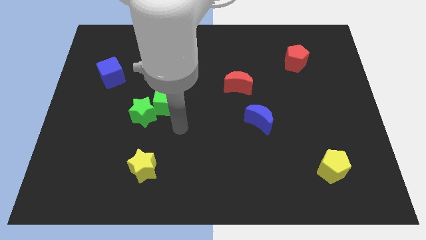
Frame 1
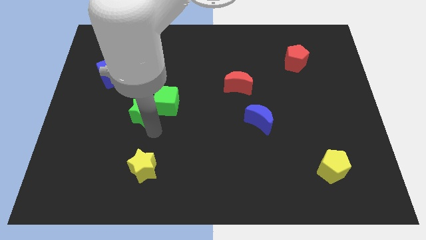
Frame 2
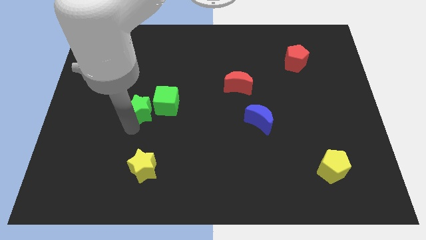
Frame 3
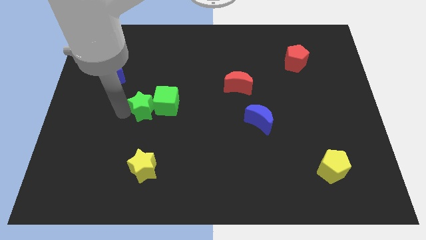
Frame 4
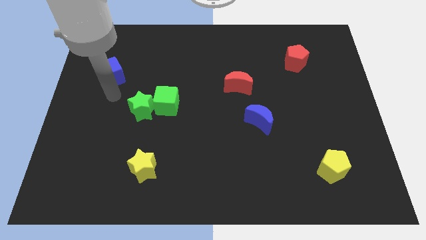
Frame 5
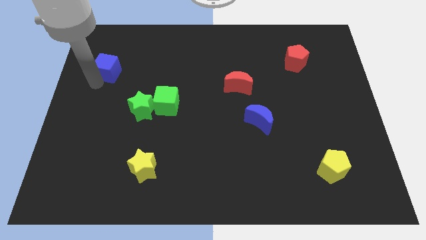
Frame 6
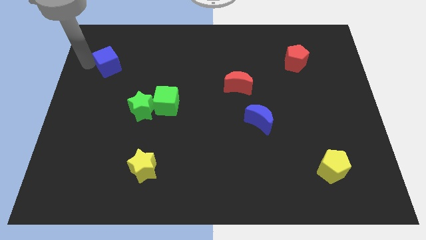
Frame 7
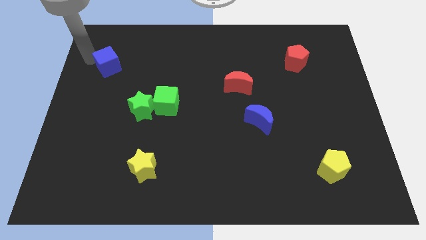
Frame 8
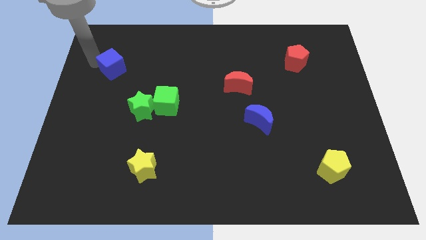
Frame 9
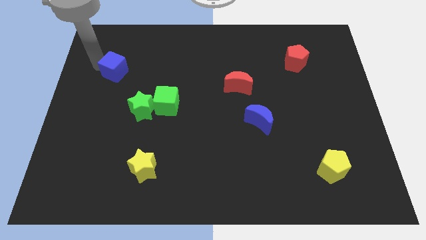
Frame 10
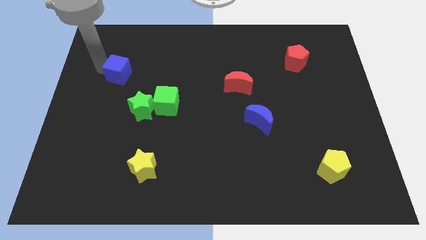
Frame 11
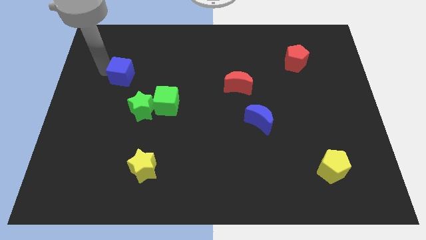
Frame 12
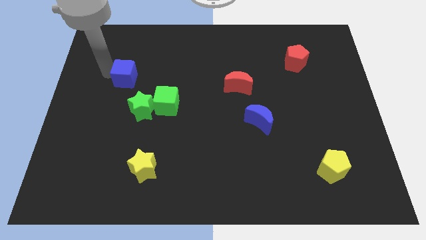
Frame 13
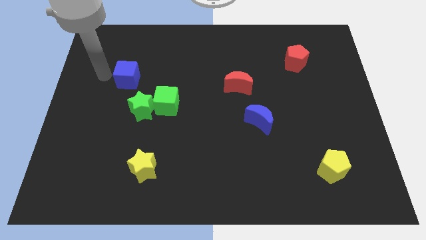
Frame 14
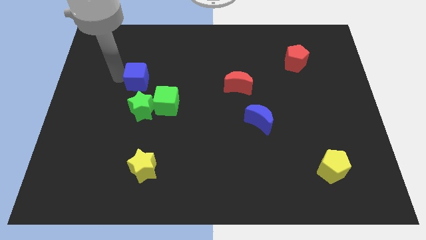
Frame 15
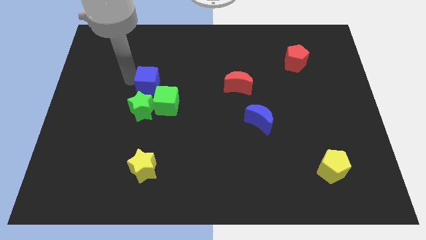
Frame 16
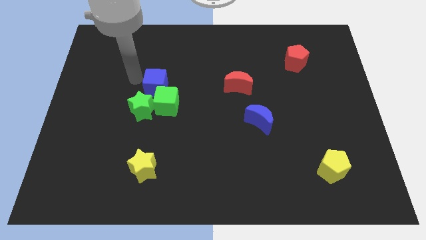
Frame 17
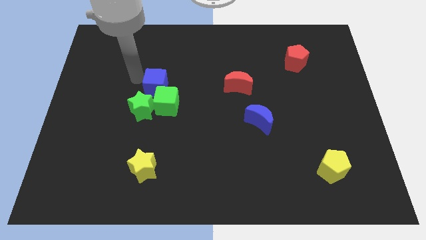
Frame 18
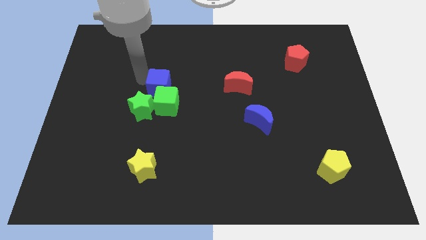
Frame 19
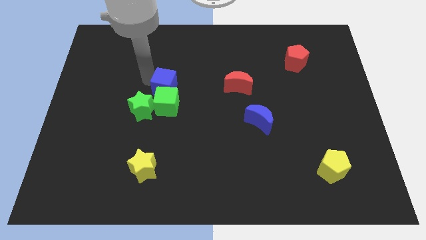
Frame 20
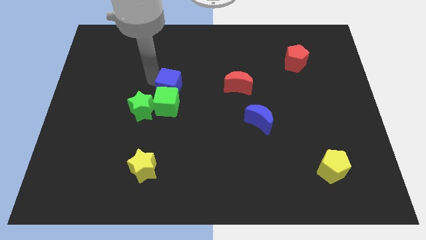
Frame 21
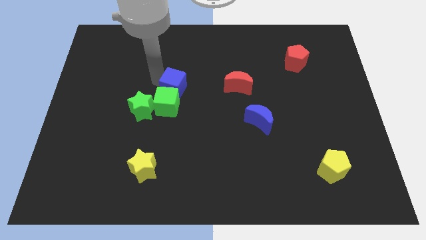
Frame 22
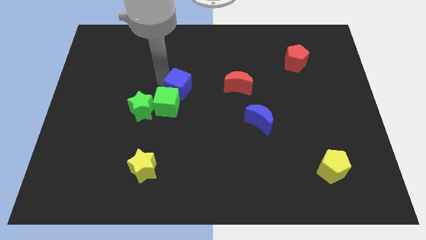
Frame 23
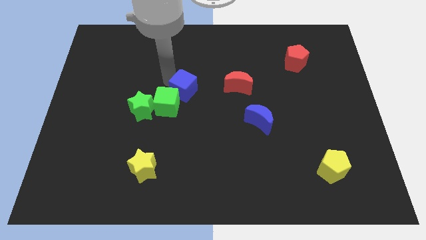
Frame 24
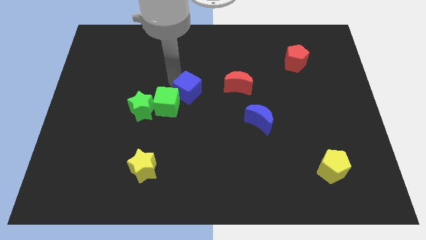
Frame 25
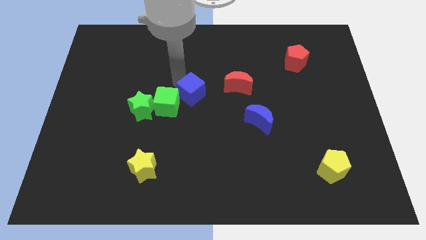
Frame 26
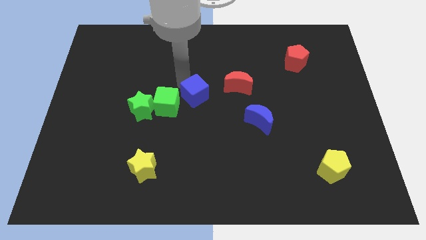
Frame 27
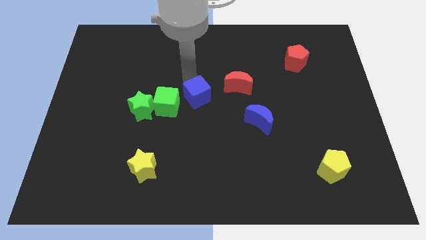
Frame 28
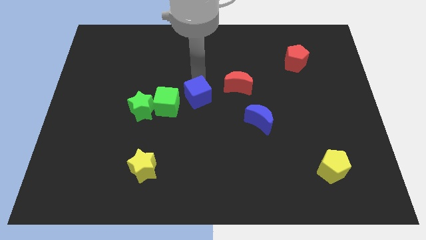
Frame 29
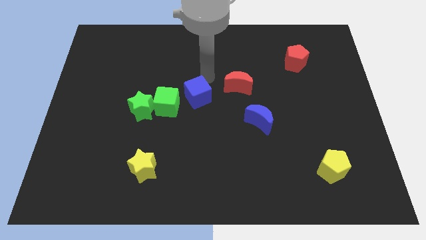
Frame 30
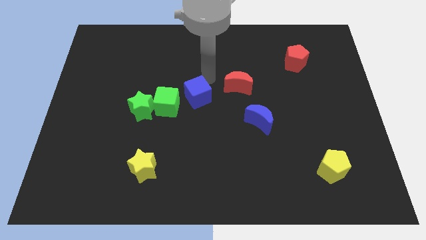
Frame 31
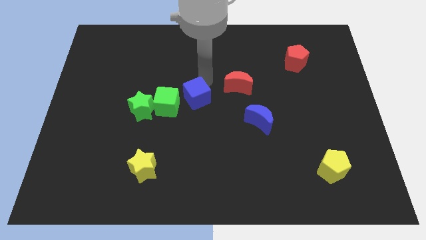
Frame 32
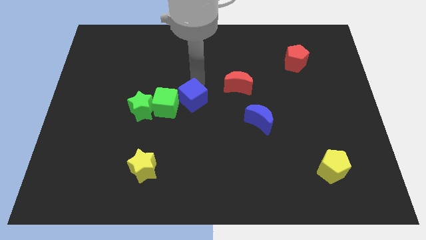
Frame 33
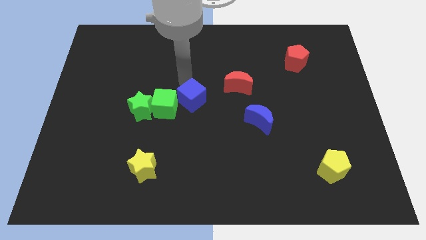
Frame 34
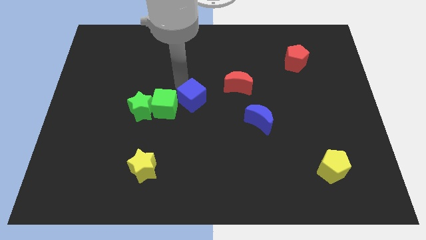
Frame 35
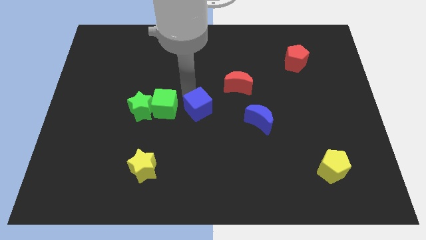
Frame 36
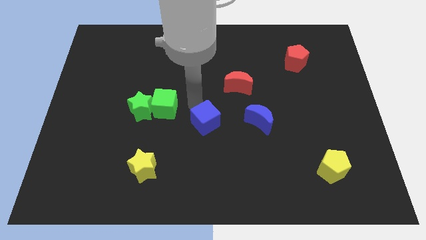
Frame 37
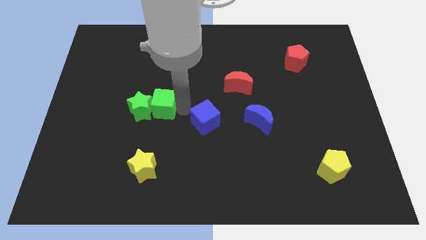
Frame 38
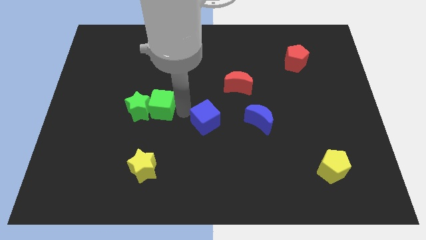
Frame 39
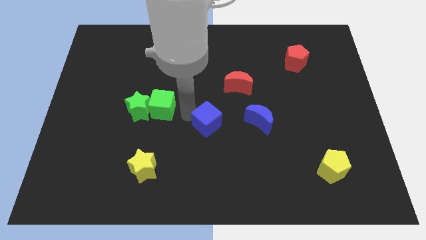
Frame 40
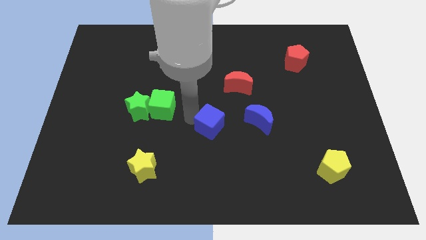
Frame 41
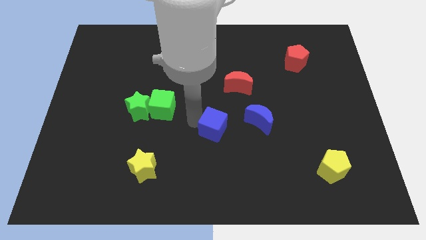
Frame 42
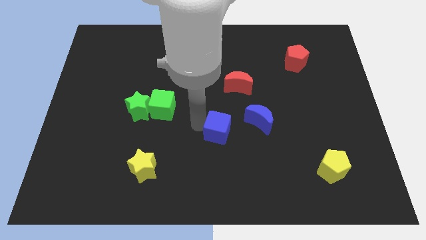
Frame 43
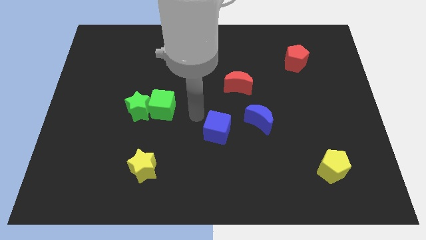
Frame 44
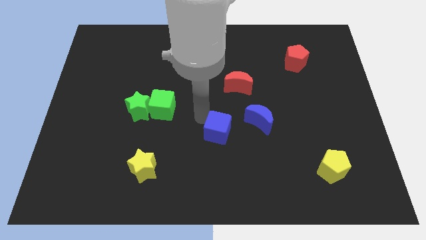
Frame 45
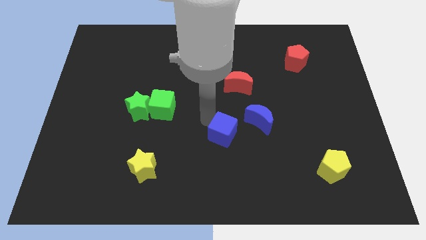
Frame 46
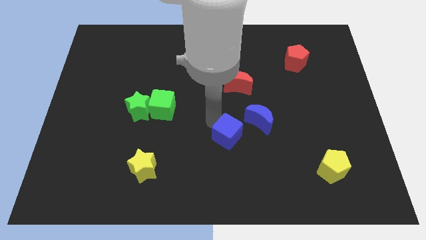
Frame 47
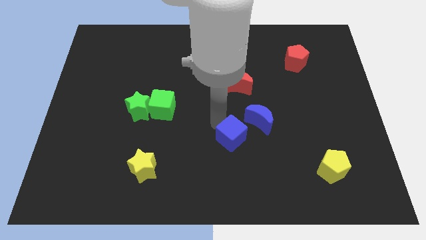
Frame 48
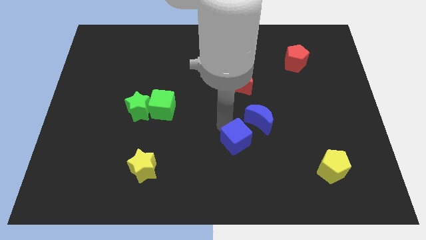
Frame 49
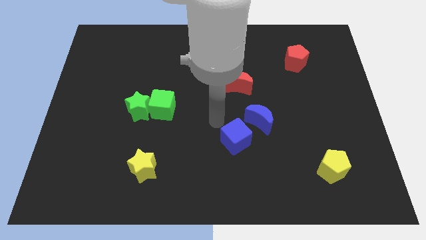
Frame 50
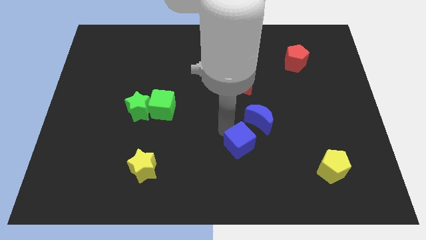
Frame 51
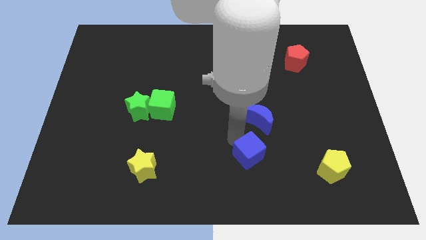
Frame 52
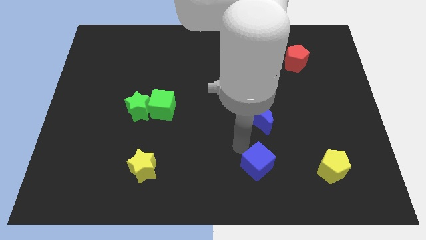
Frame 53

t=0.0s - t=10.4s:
move the blue cube left of the yellow pentagon

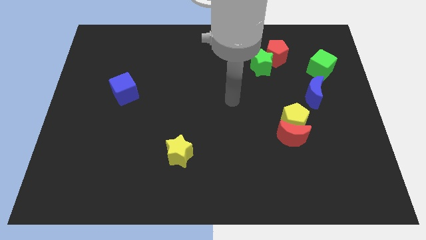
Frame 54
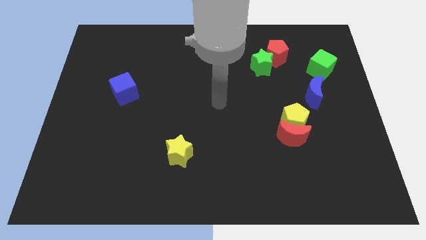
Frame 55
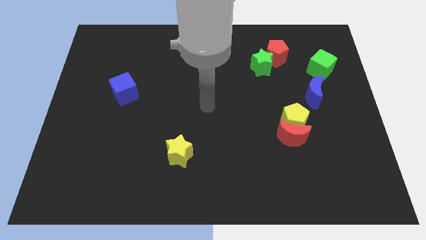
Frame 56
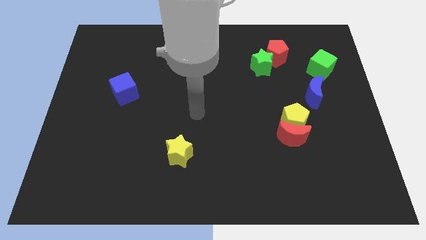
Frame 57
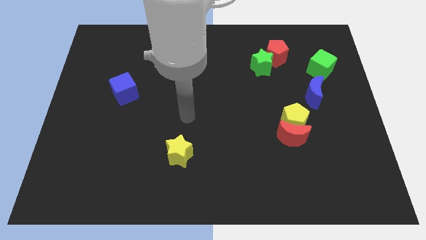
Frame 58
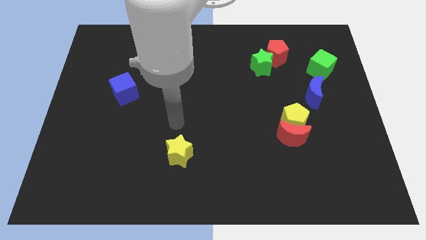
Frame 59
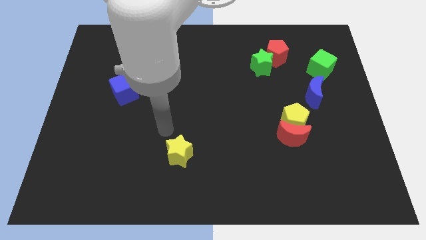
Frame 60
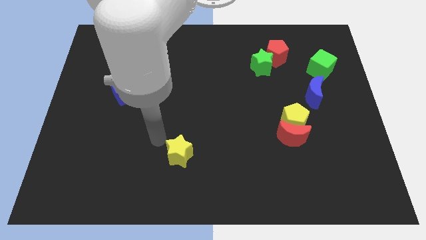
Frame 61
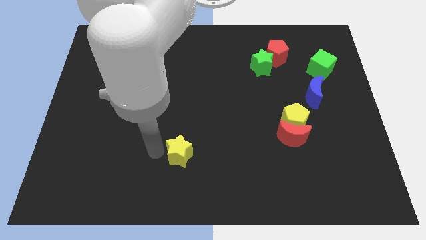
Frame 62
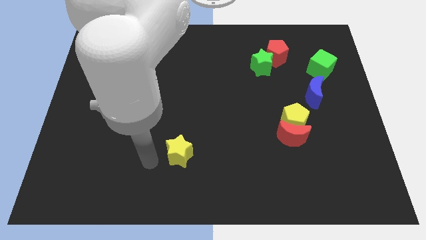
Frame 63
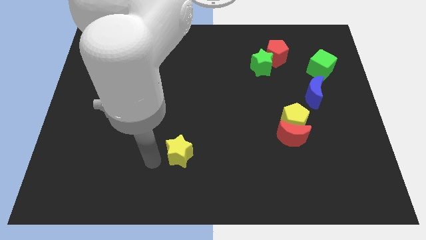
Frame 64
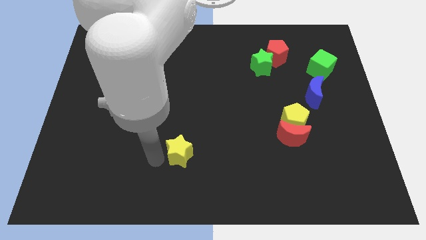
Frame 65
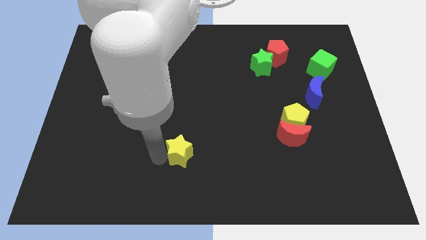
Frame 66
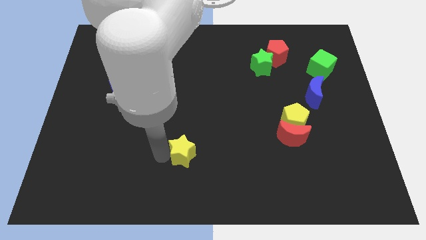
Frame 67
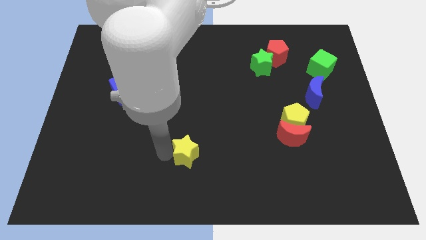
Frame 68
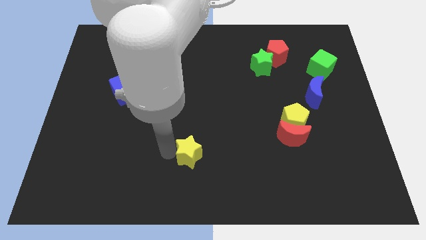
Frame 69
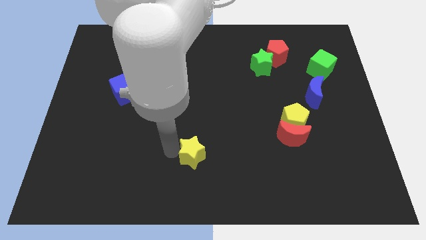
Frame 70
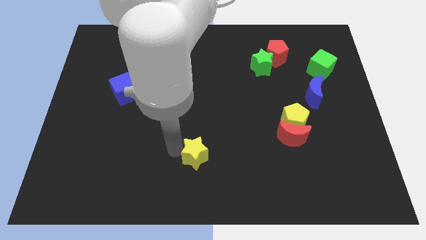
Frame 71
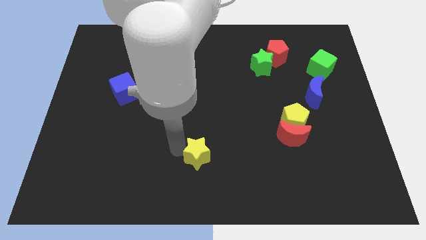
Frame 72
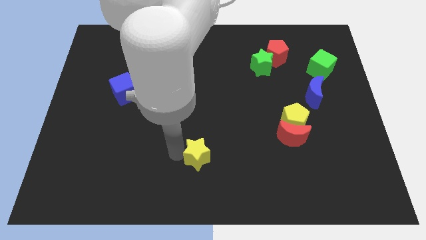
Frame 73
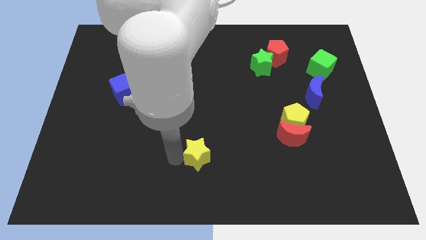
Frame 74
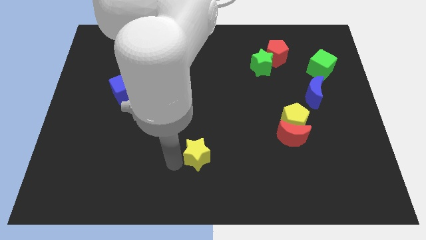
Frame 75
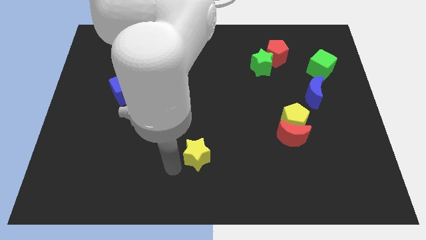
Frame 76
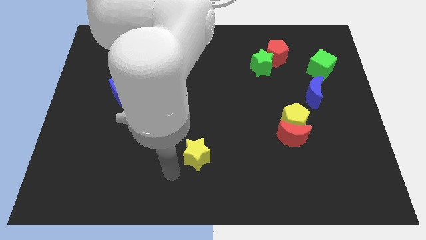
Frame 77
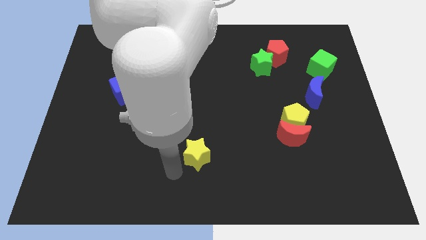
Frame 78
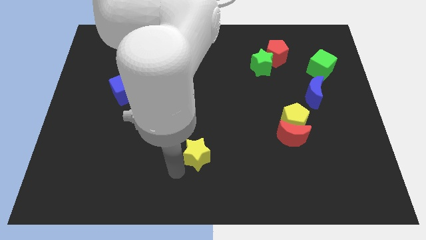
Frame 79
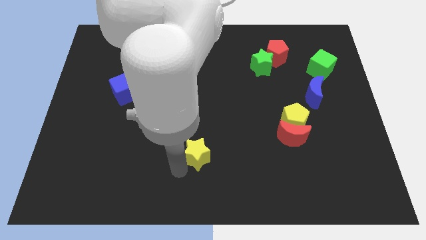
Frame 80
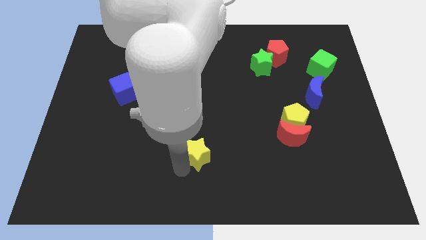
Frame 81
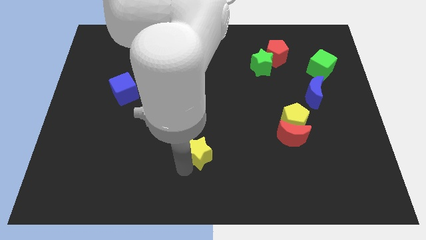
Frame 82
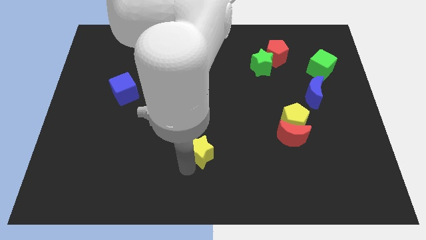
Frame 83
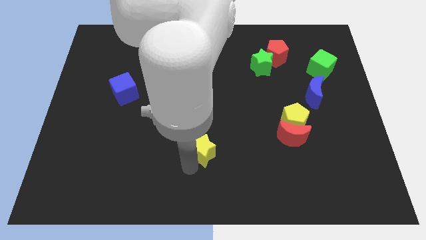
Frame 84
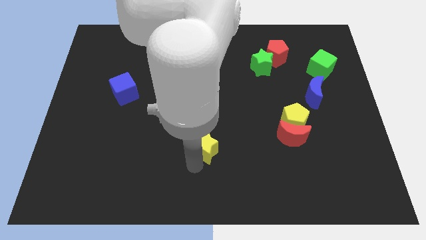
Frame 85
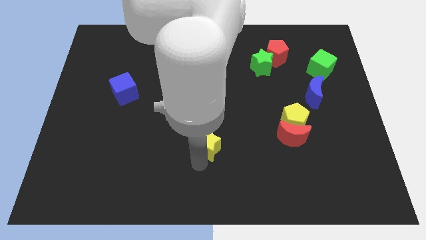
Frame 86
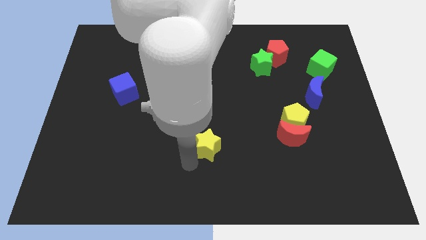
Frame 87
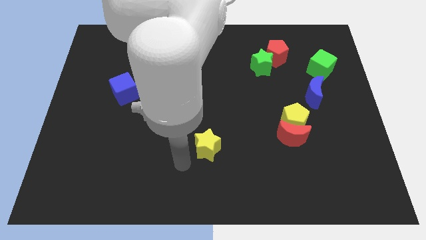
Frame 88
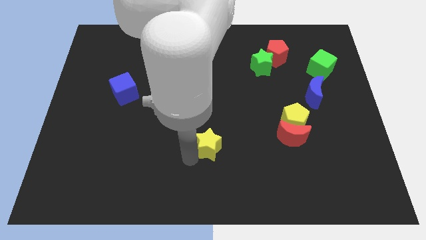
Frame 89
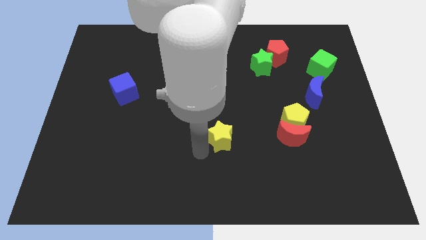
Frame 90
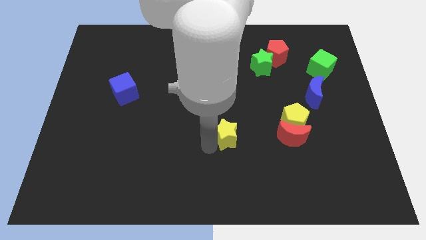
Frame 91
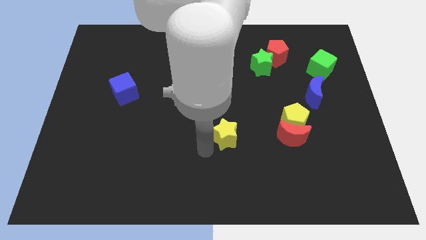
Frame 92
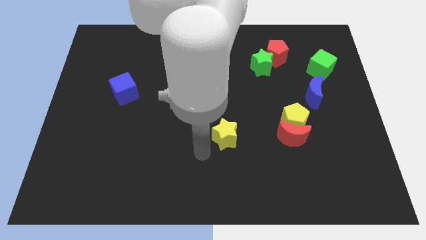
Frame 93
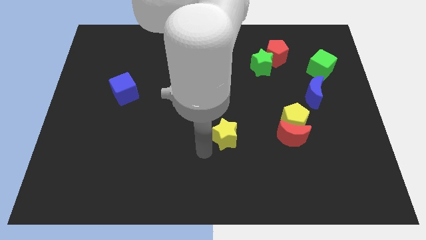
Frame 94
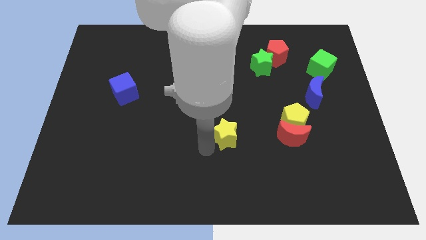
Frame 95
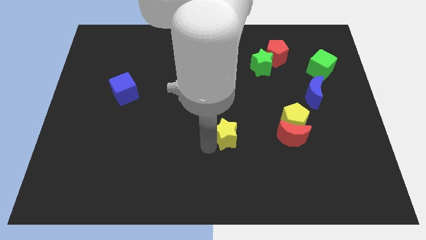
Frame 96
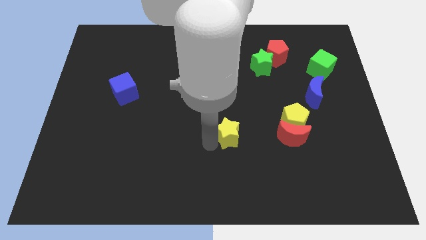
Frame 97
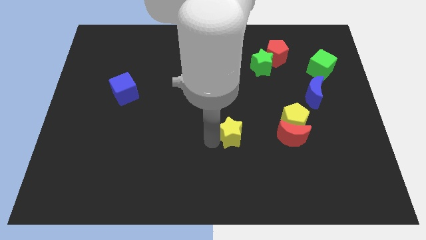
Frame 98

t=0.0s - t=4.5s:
put the yellow star to the left of the yellow pentagon
